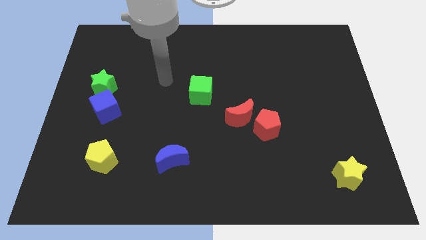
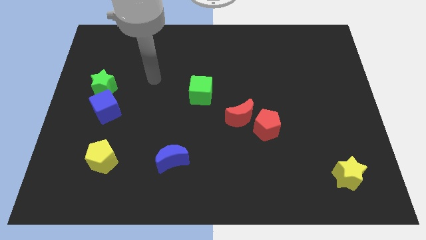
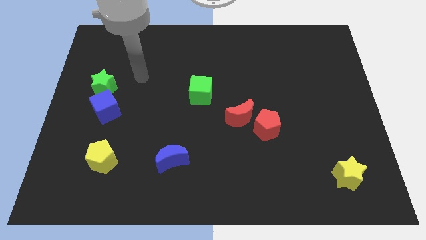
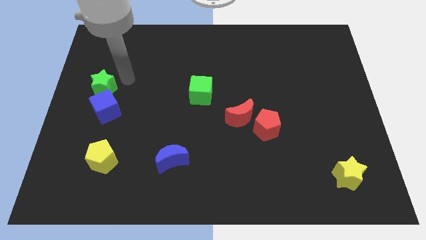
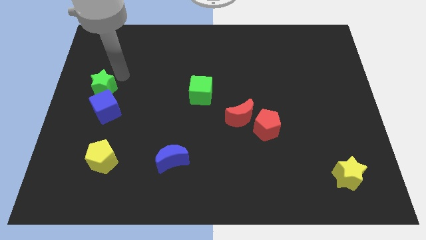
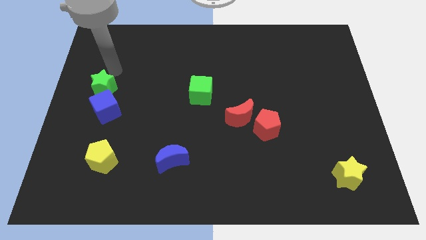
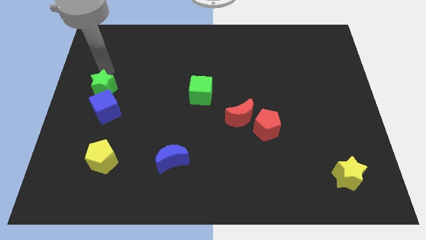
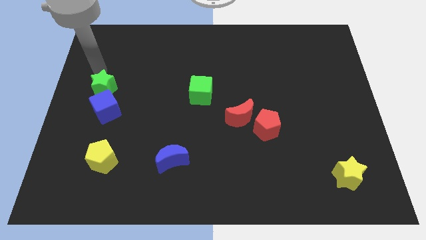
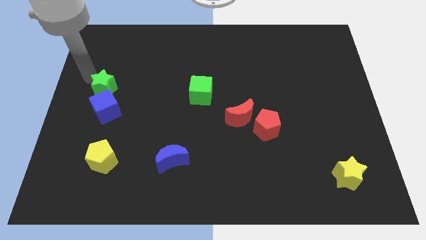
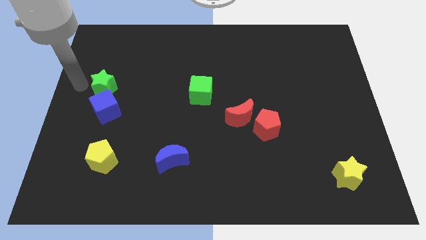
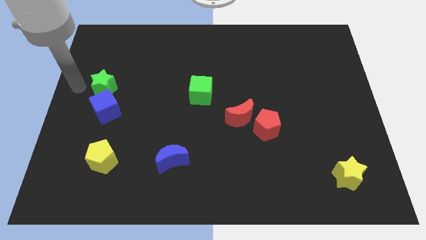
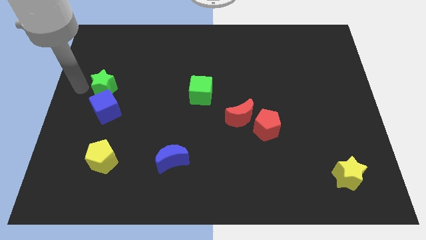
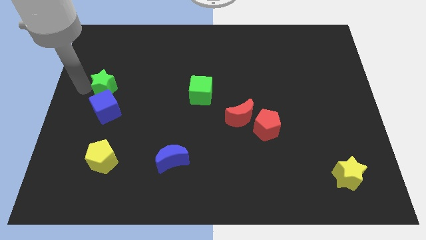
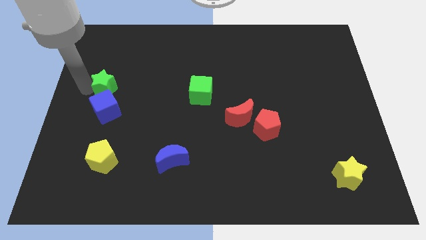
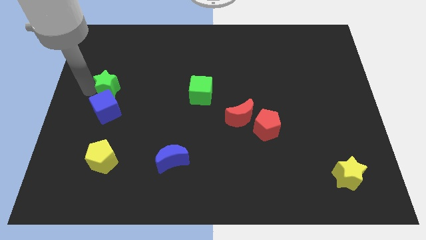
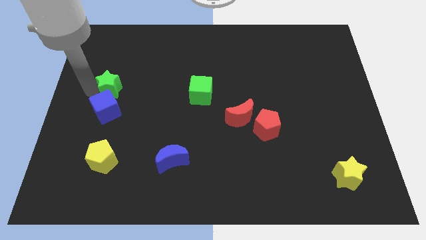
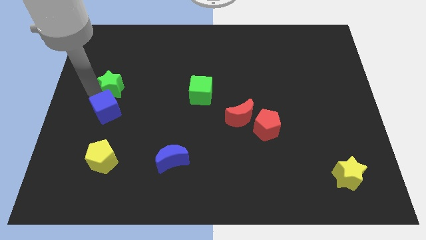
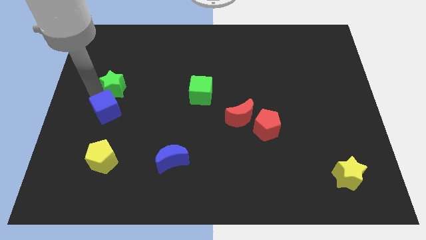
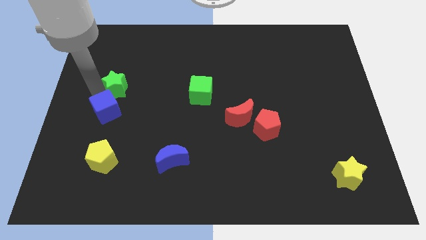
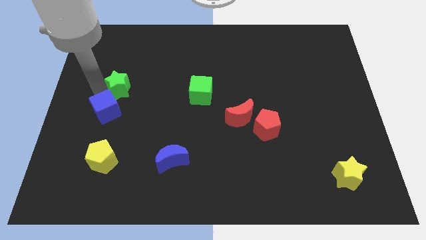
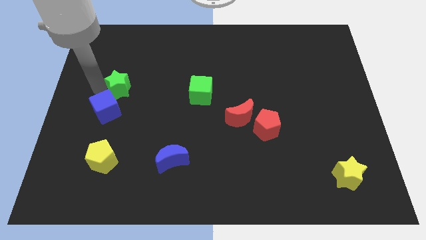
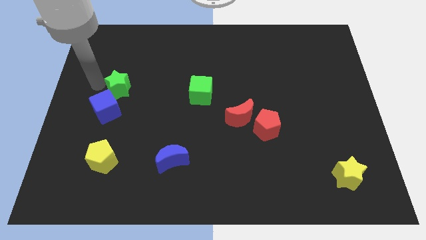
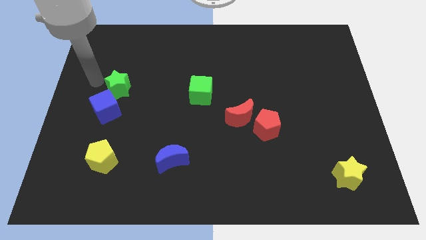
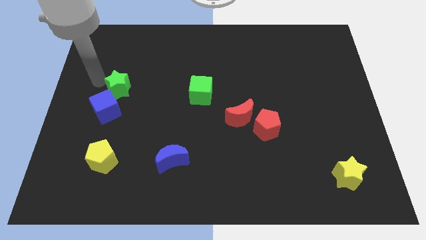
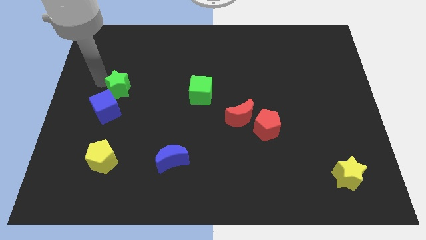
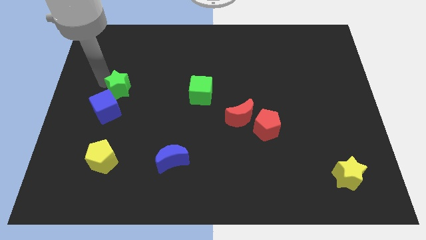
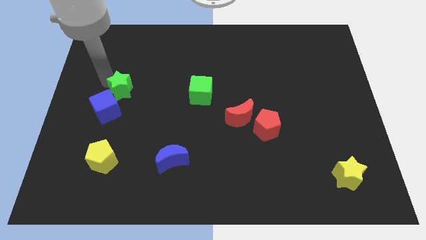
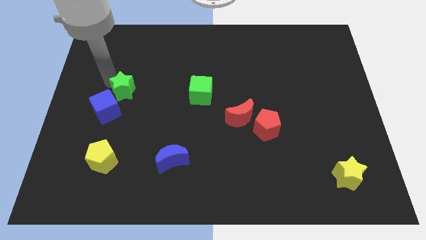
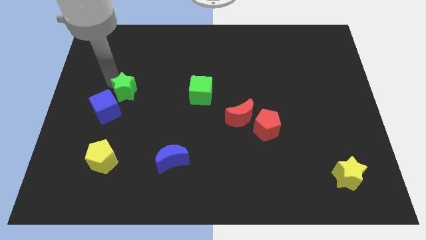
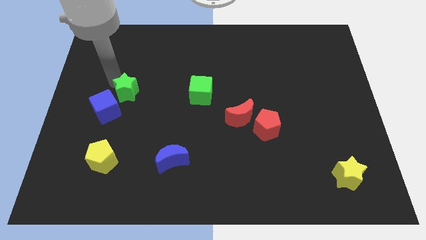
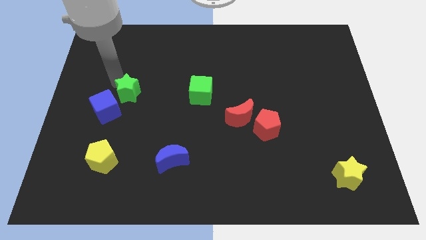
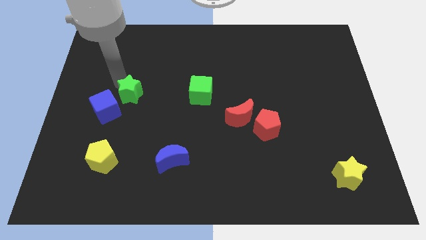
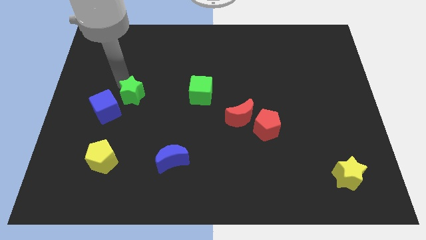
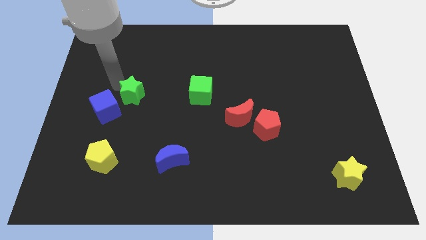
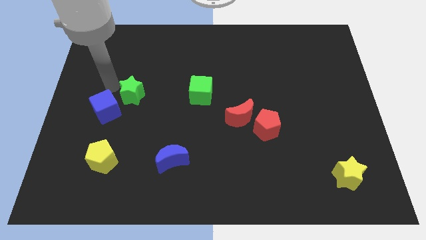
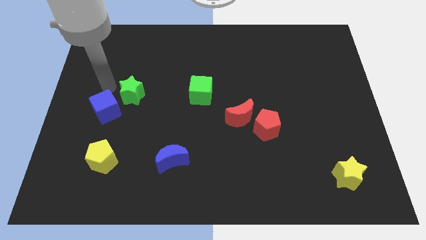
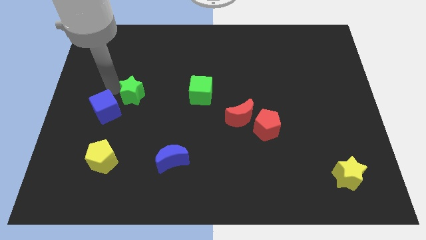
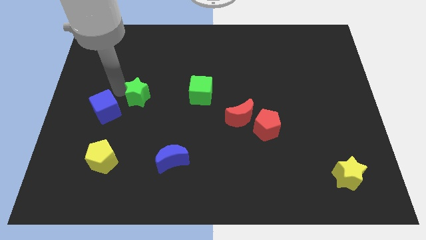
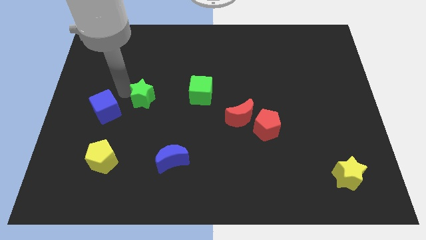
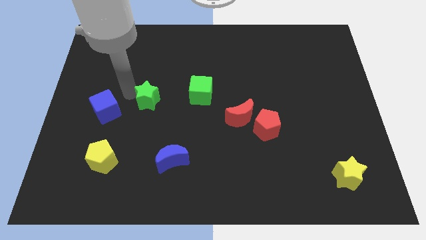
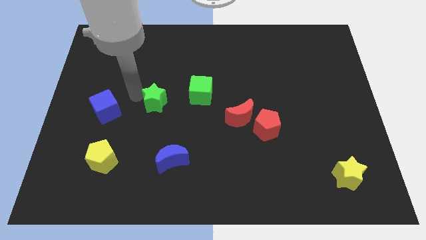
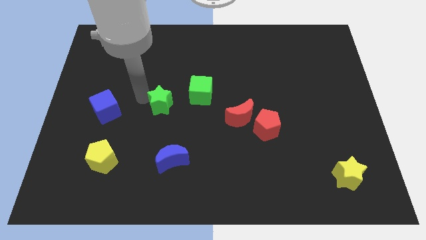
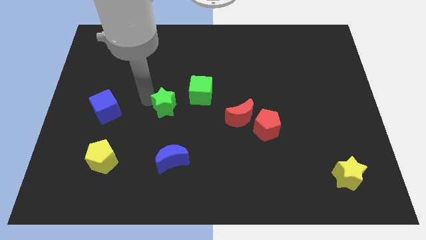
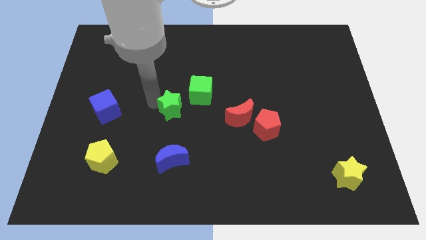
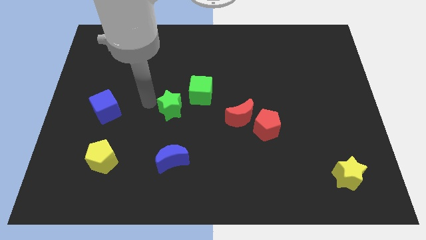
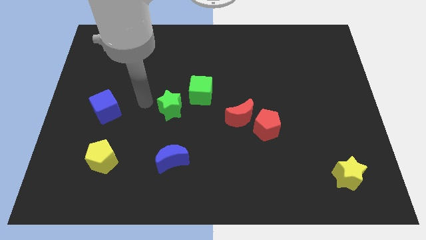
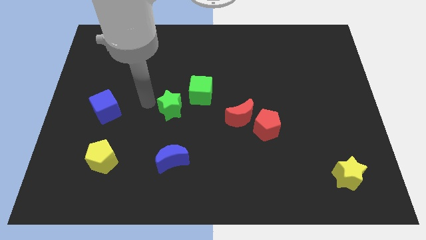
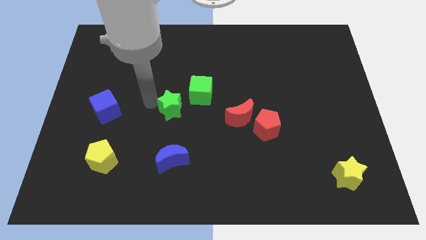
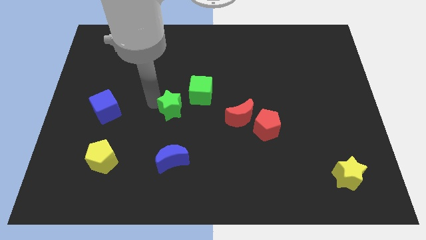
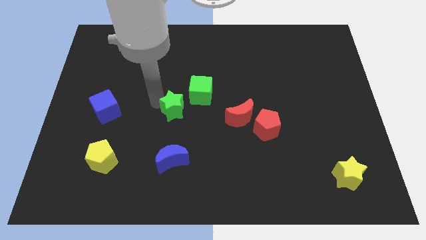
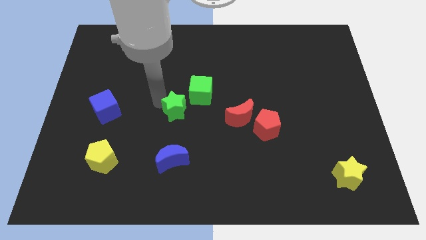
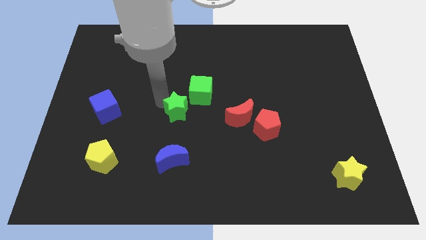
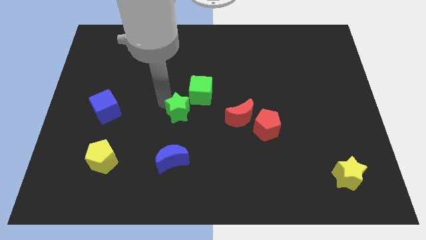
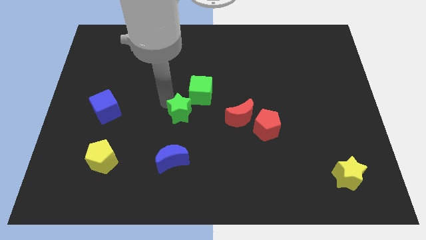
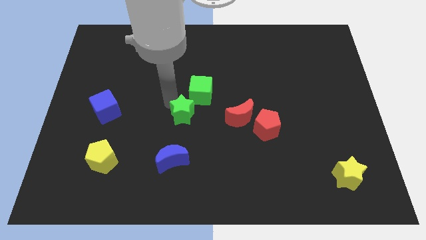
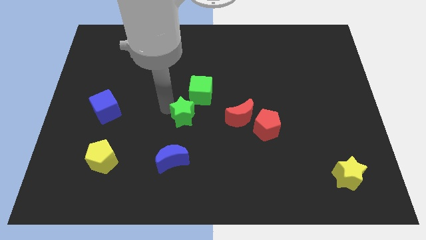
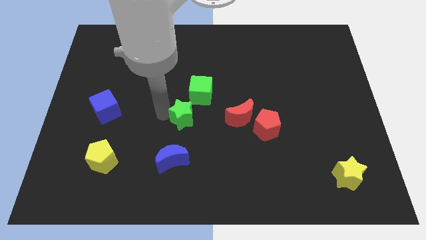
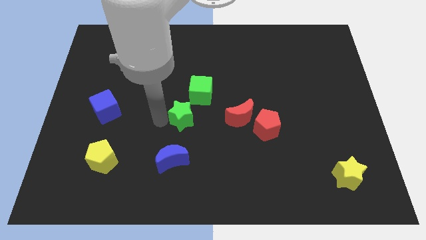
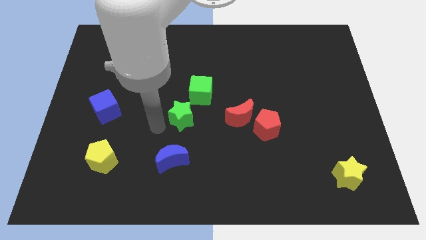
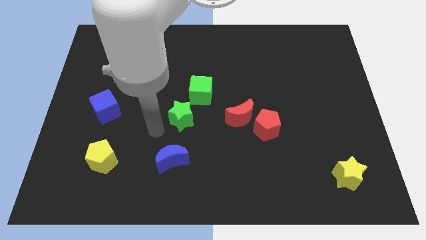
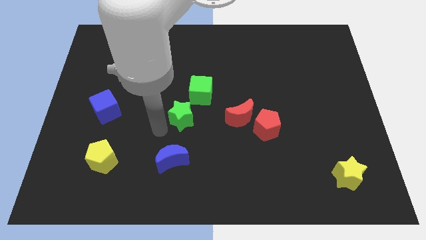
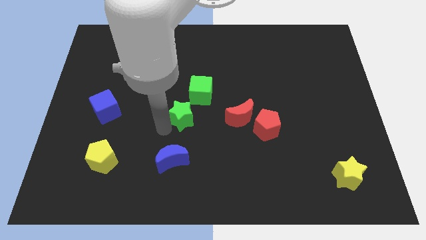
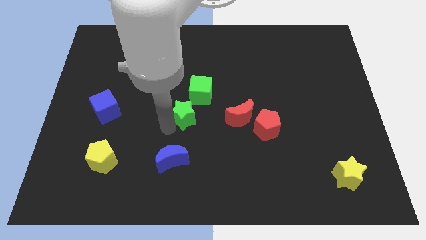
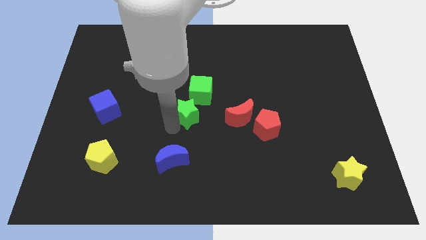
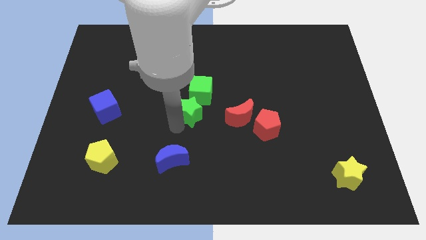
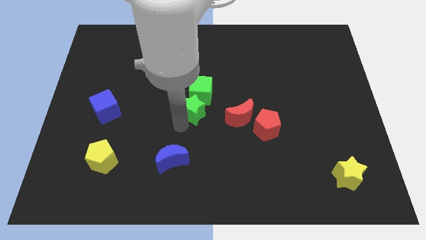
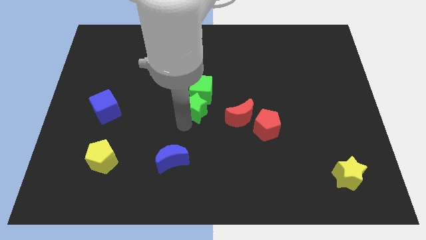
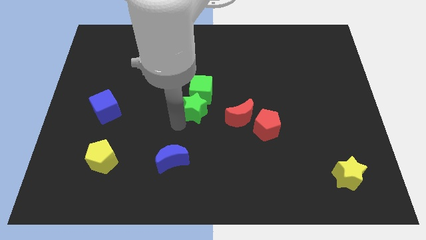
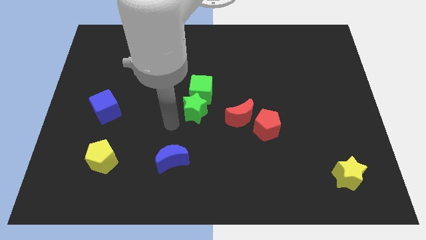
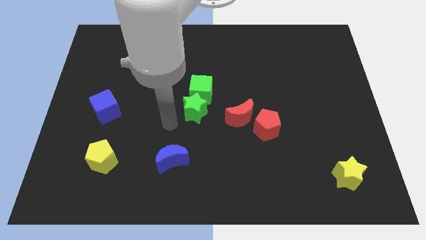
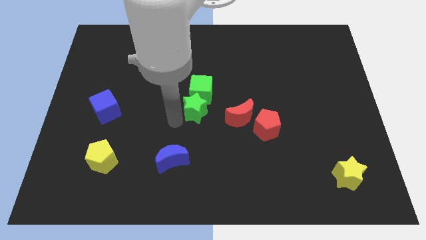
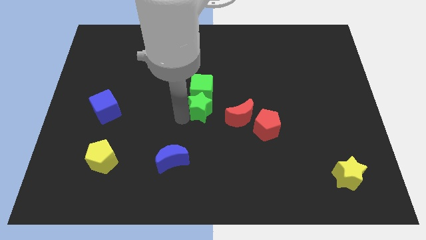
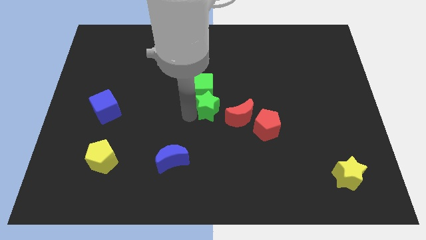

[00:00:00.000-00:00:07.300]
slide the green star diagonally up and to the left of the red moon
